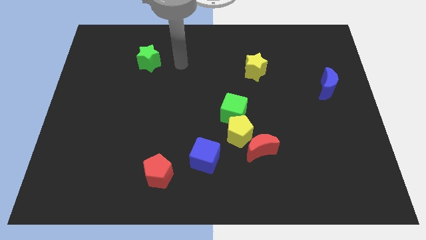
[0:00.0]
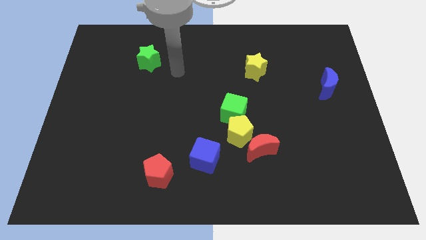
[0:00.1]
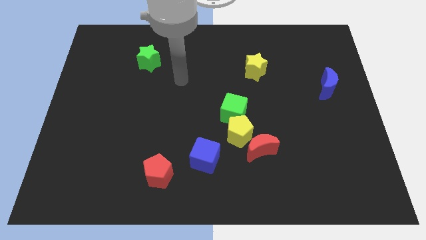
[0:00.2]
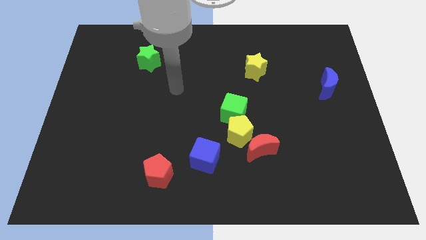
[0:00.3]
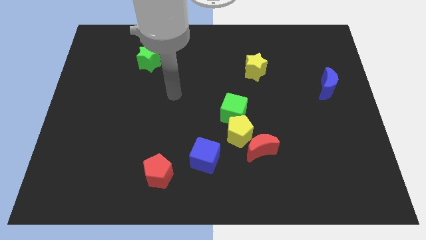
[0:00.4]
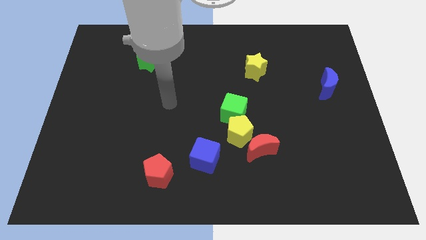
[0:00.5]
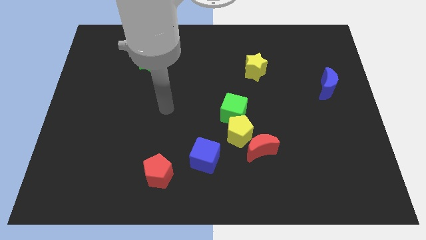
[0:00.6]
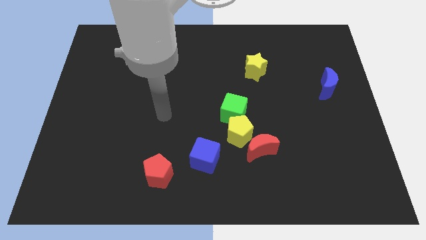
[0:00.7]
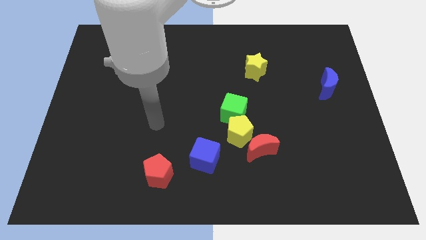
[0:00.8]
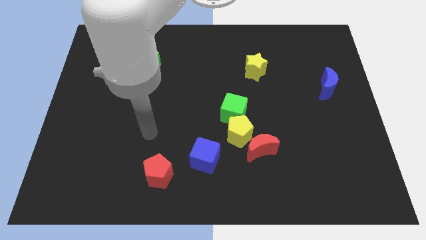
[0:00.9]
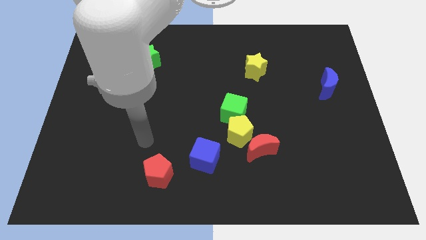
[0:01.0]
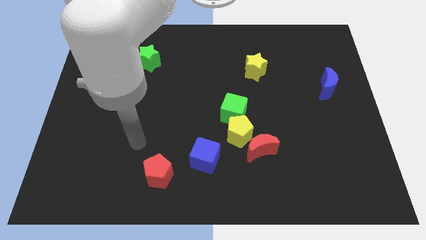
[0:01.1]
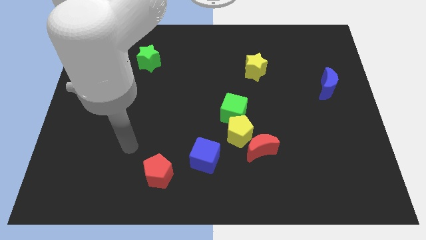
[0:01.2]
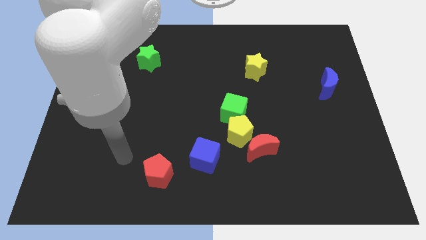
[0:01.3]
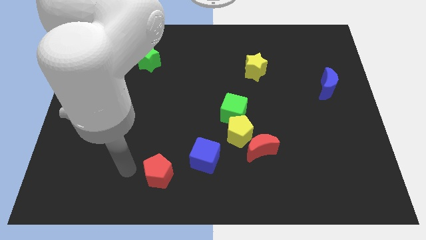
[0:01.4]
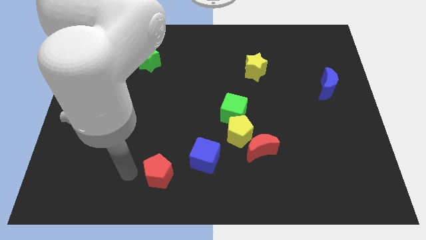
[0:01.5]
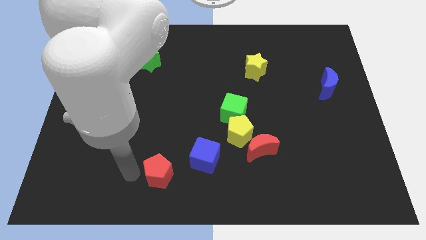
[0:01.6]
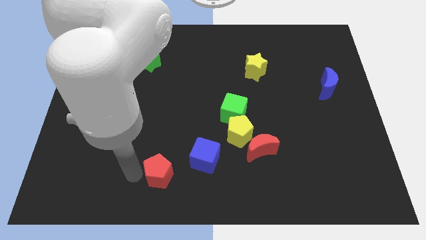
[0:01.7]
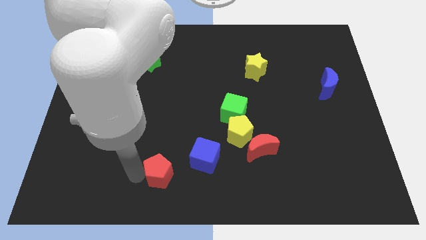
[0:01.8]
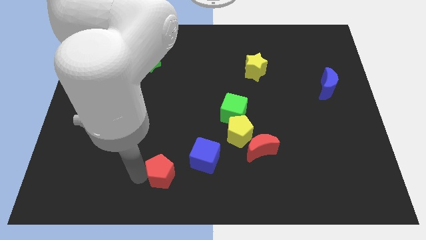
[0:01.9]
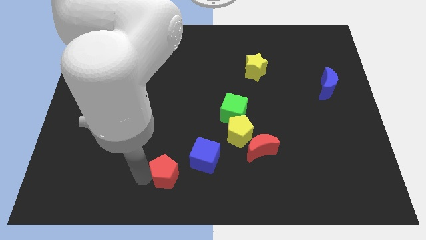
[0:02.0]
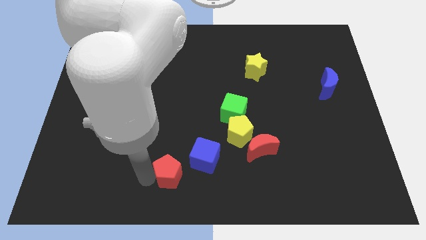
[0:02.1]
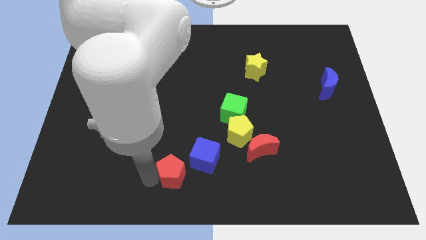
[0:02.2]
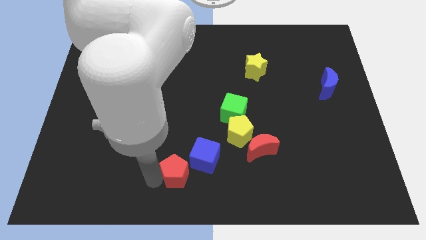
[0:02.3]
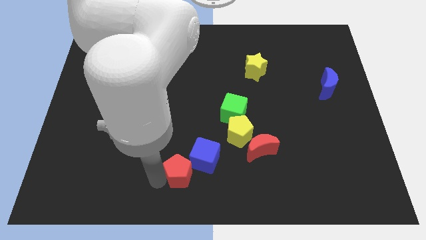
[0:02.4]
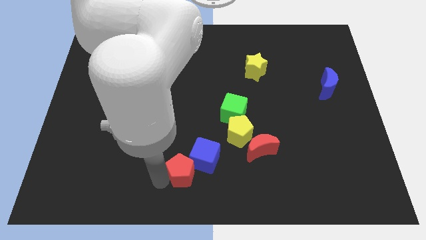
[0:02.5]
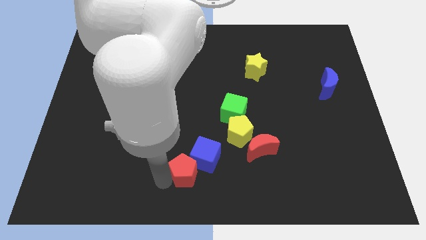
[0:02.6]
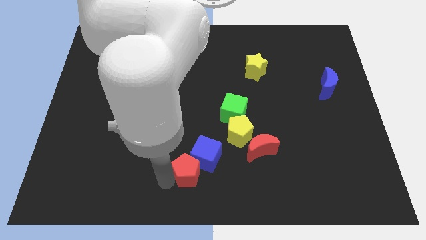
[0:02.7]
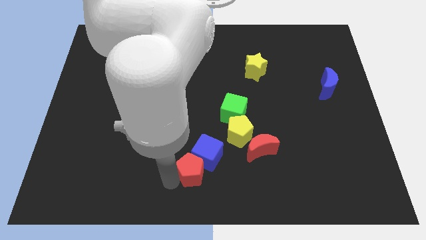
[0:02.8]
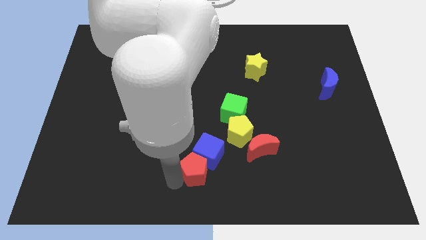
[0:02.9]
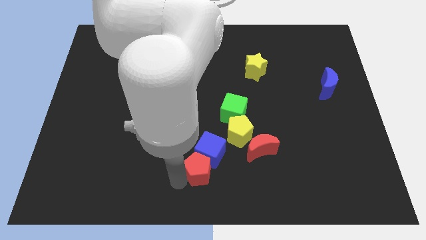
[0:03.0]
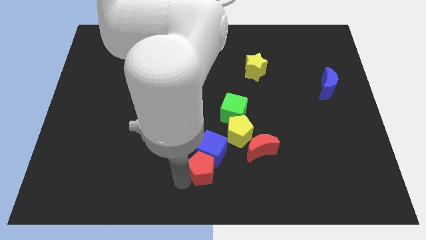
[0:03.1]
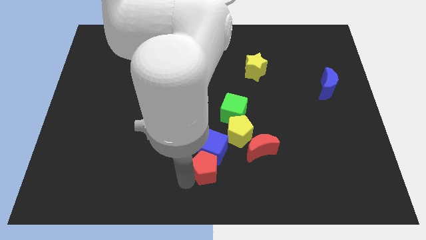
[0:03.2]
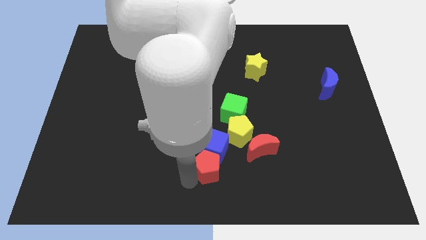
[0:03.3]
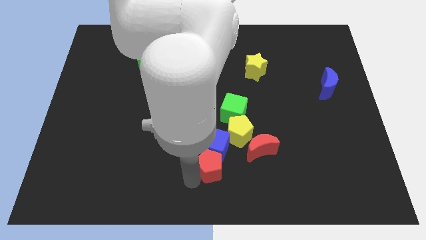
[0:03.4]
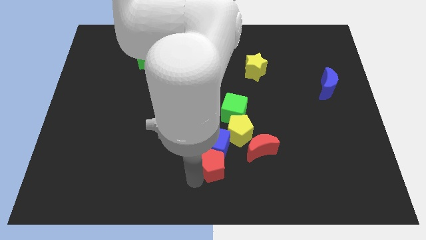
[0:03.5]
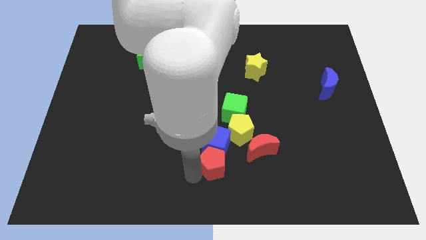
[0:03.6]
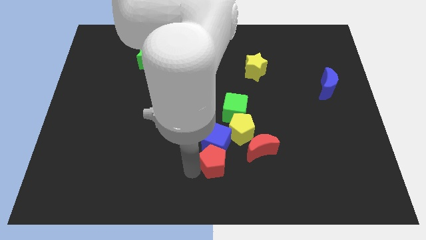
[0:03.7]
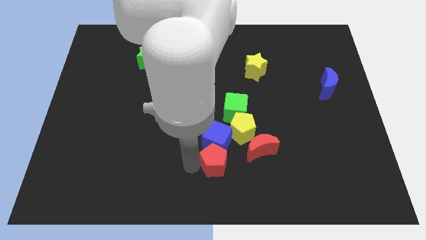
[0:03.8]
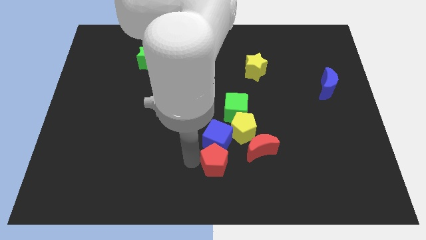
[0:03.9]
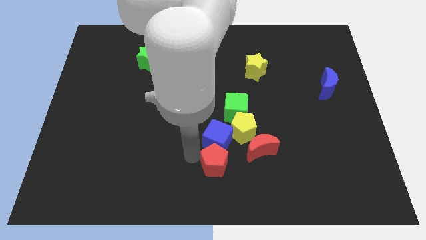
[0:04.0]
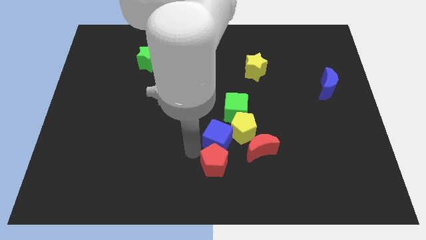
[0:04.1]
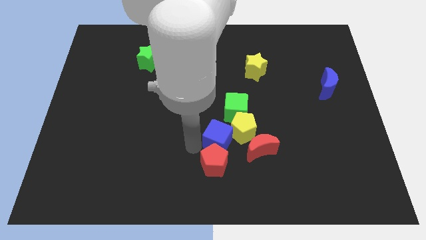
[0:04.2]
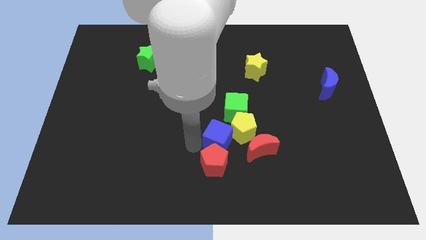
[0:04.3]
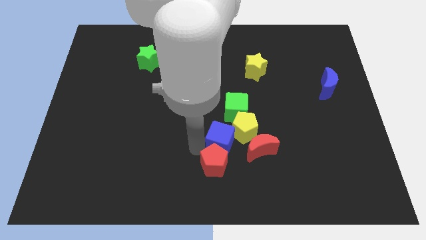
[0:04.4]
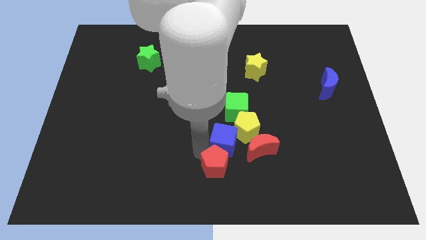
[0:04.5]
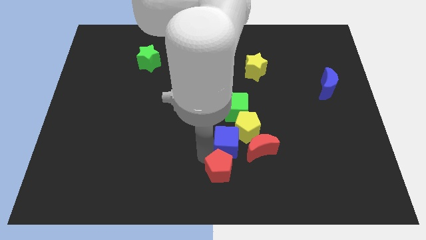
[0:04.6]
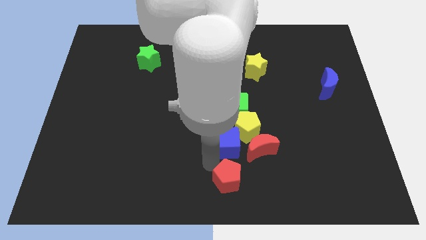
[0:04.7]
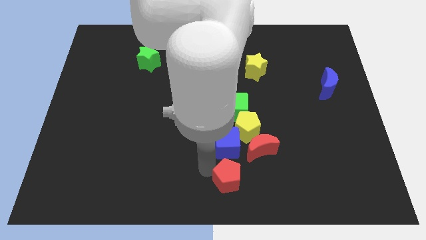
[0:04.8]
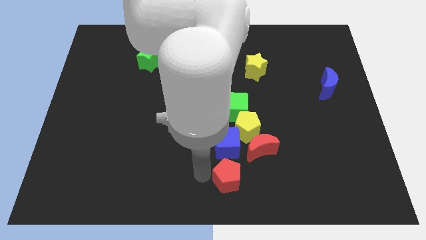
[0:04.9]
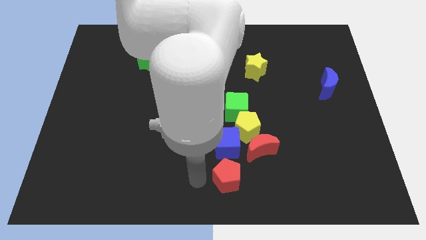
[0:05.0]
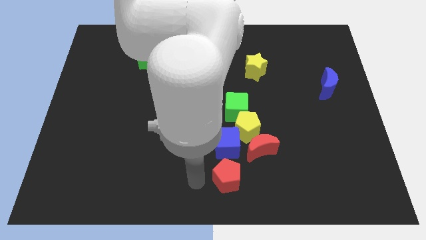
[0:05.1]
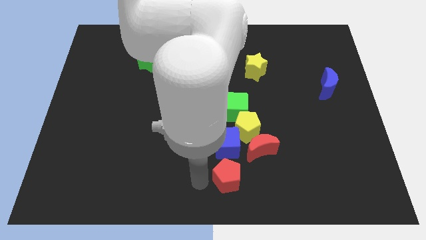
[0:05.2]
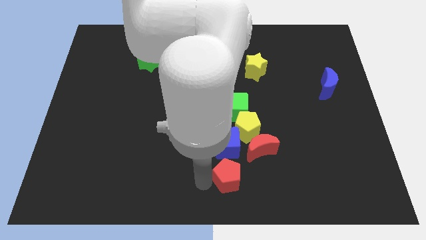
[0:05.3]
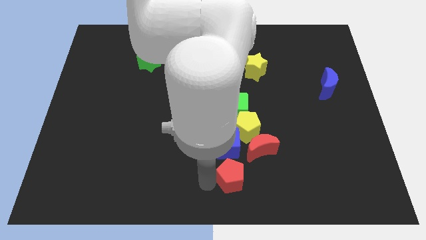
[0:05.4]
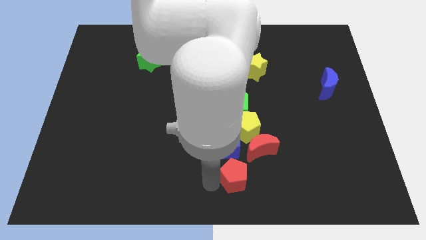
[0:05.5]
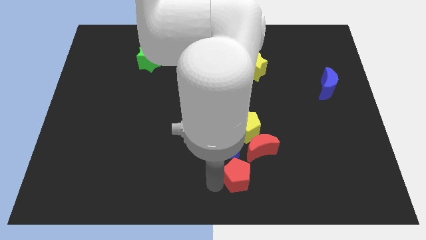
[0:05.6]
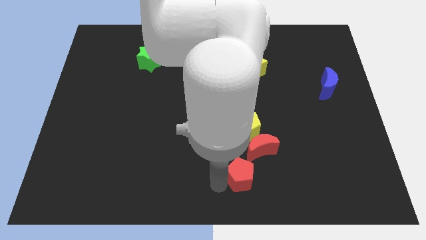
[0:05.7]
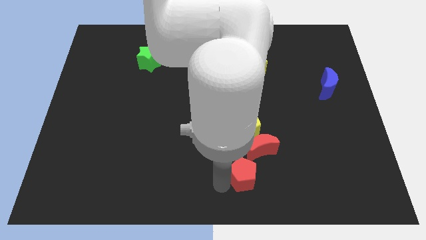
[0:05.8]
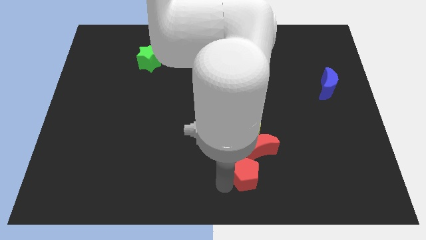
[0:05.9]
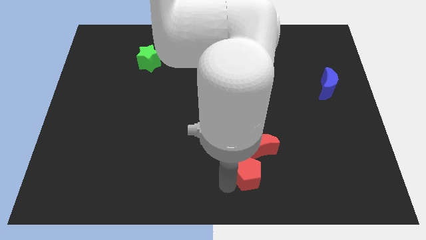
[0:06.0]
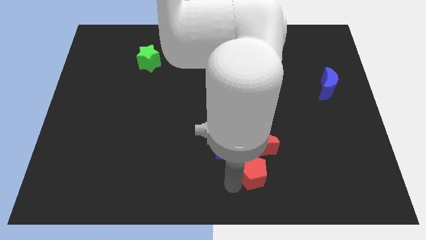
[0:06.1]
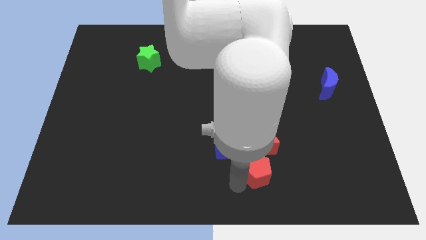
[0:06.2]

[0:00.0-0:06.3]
move the red pentagon to the right

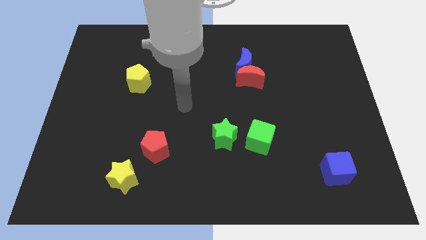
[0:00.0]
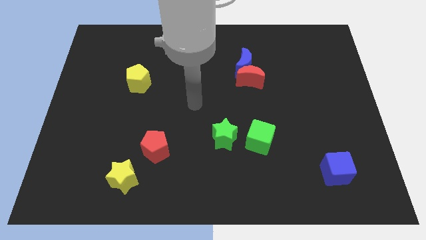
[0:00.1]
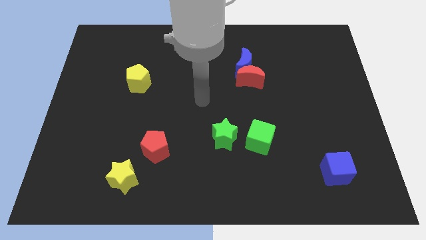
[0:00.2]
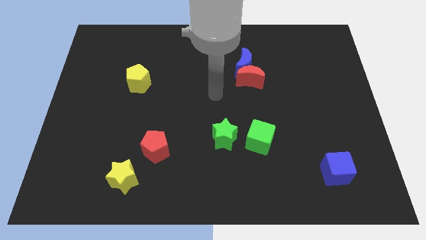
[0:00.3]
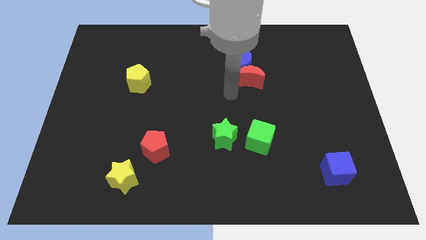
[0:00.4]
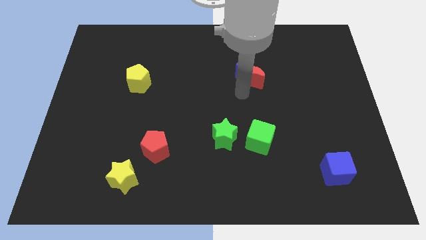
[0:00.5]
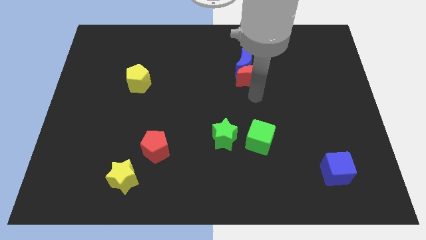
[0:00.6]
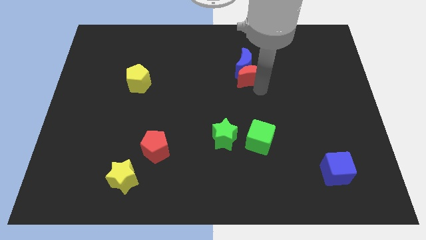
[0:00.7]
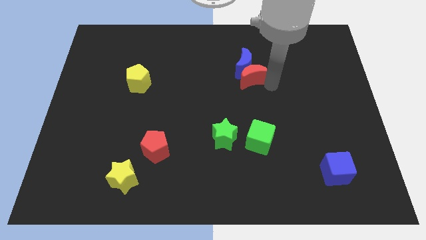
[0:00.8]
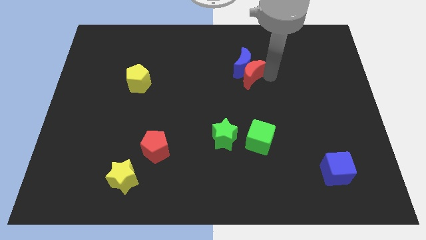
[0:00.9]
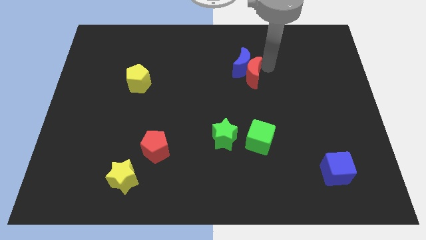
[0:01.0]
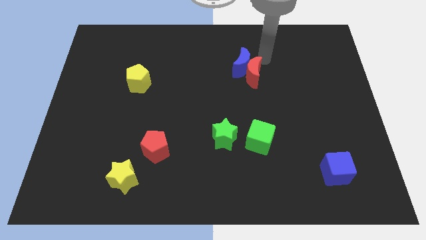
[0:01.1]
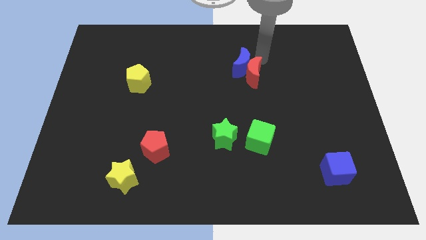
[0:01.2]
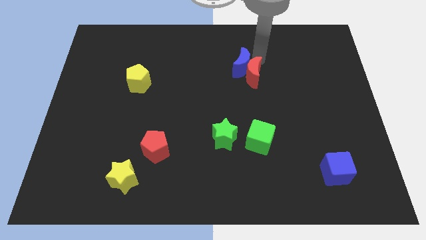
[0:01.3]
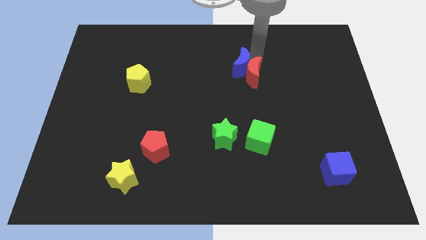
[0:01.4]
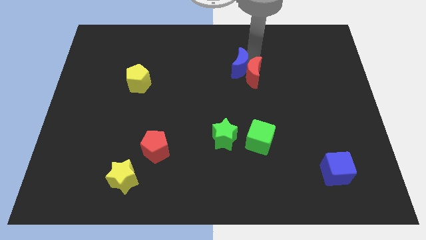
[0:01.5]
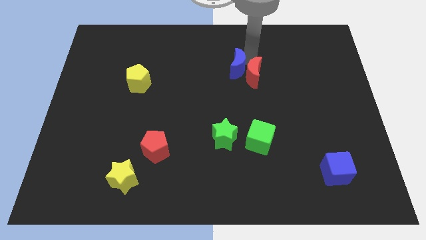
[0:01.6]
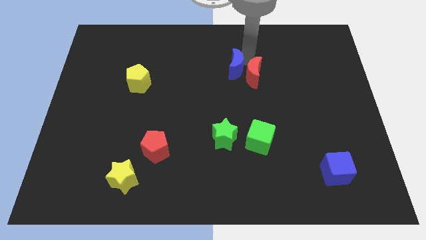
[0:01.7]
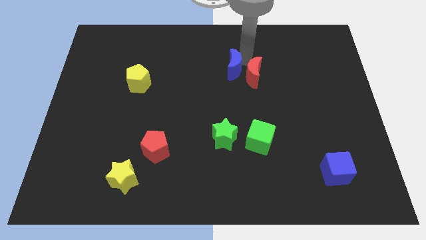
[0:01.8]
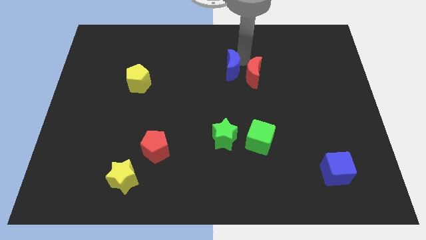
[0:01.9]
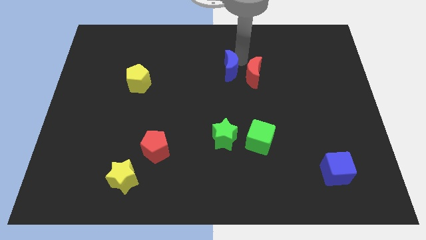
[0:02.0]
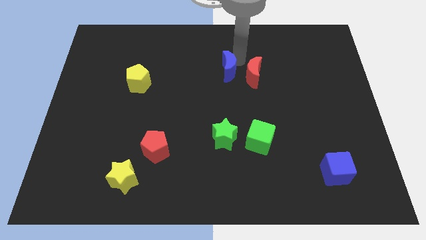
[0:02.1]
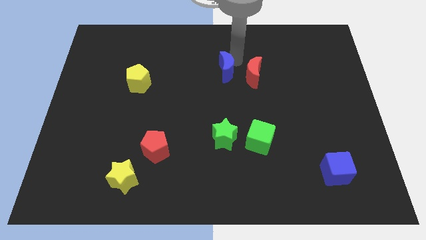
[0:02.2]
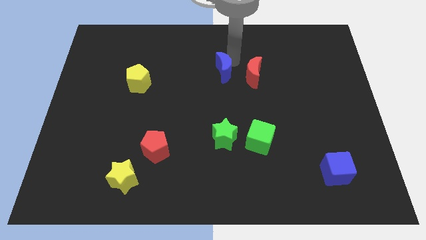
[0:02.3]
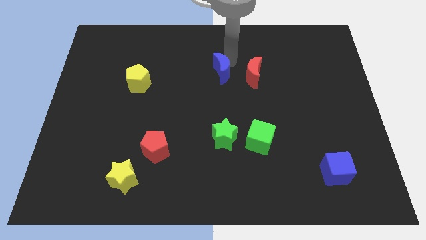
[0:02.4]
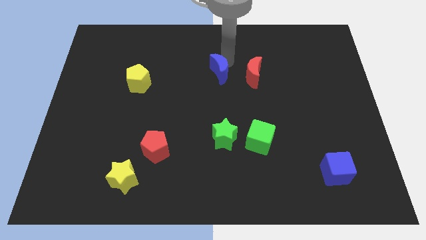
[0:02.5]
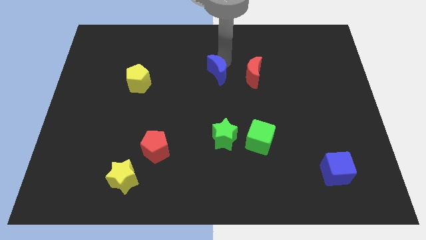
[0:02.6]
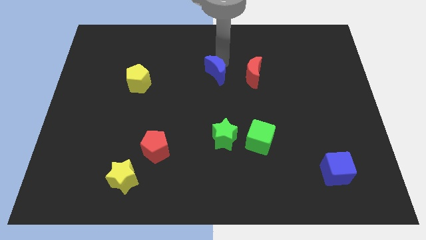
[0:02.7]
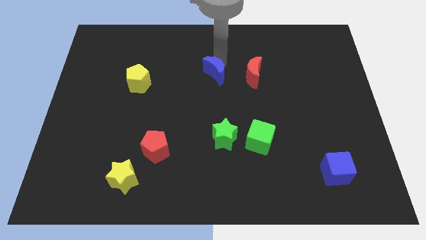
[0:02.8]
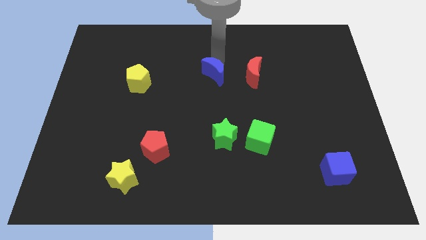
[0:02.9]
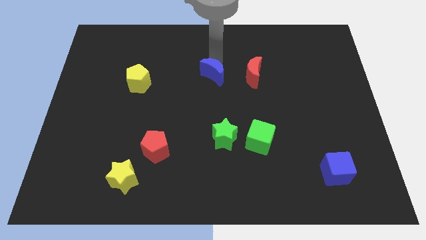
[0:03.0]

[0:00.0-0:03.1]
slightly push the blue moon downwards and to the left
